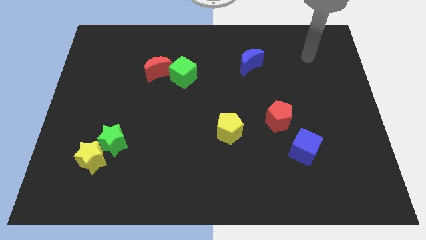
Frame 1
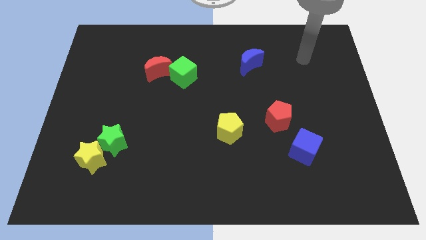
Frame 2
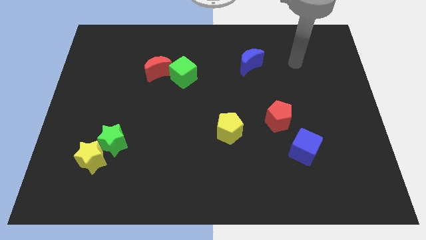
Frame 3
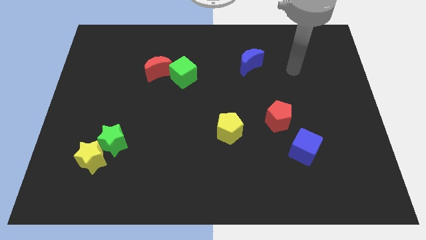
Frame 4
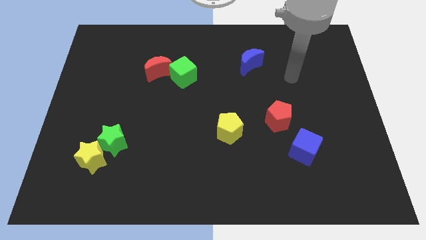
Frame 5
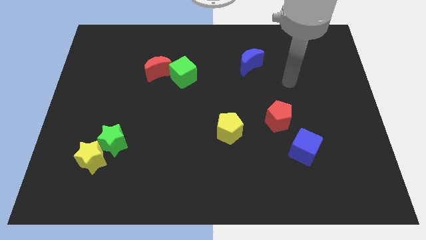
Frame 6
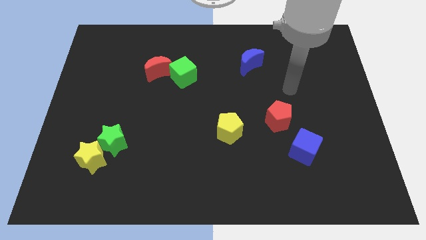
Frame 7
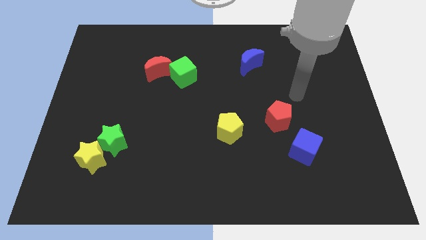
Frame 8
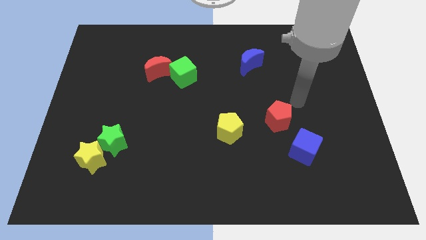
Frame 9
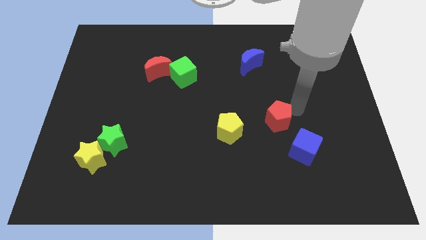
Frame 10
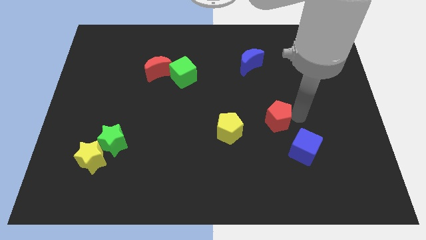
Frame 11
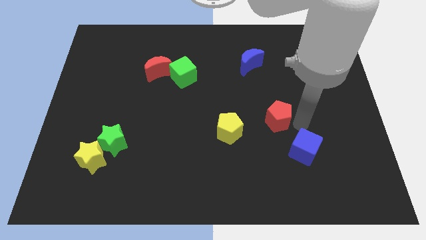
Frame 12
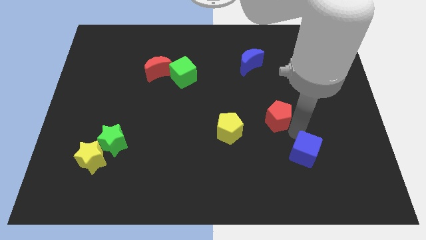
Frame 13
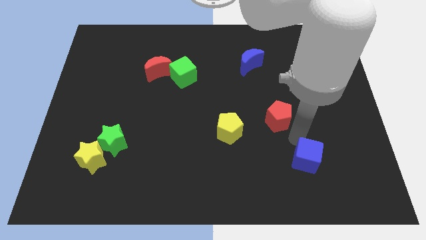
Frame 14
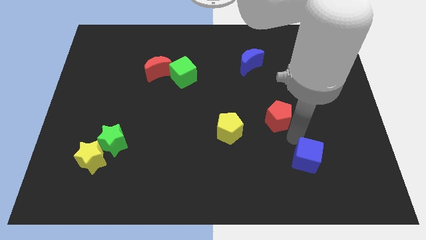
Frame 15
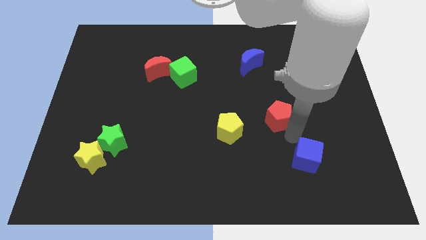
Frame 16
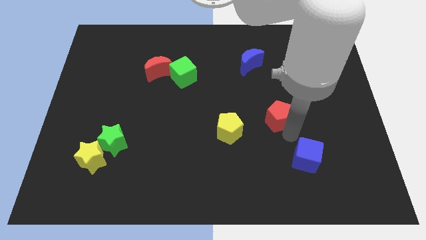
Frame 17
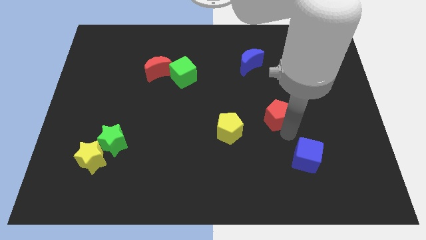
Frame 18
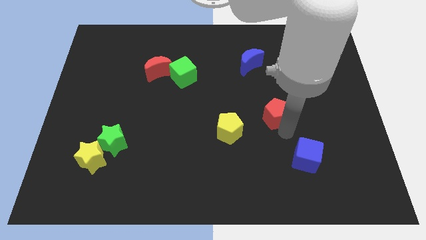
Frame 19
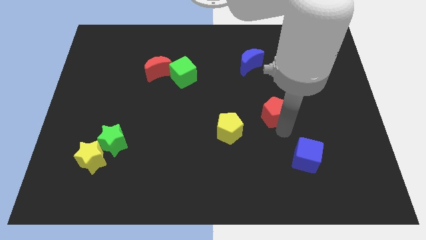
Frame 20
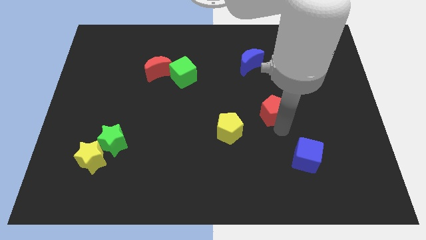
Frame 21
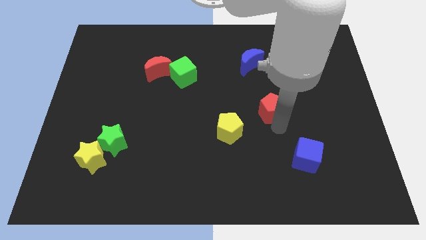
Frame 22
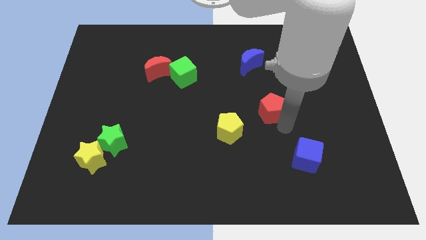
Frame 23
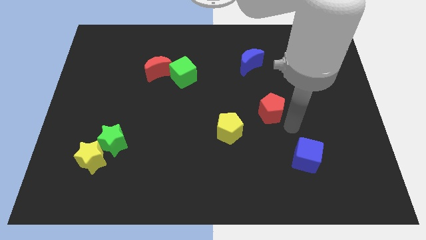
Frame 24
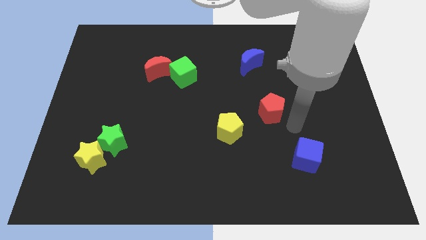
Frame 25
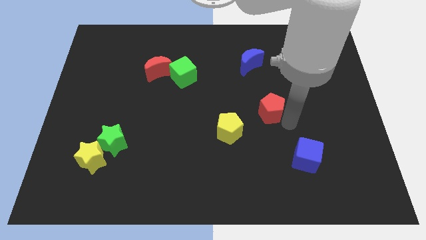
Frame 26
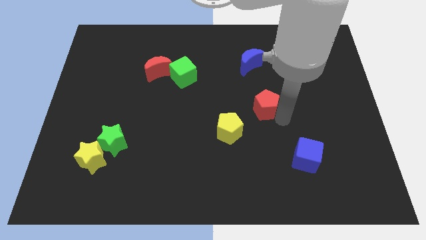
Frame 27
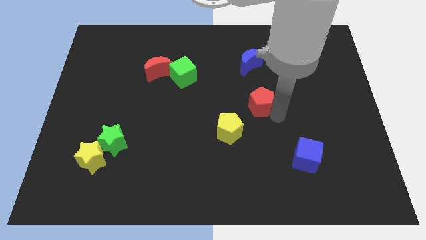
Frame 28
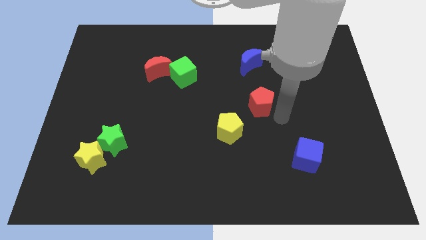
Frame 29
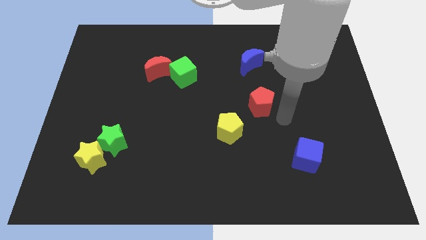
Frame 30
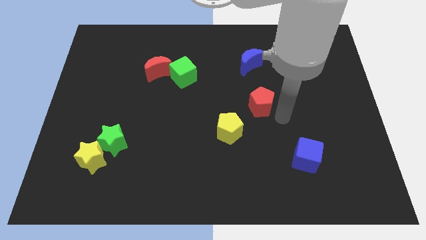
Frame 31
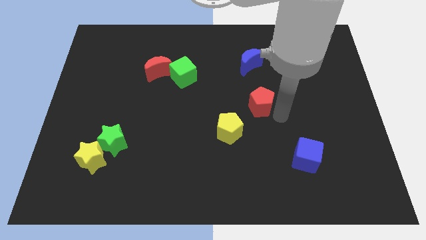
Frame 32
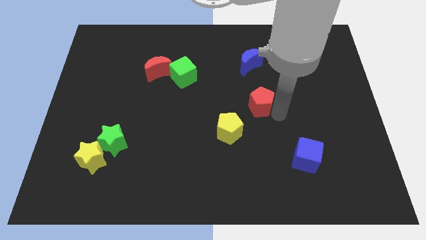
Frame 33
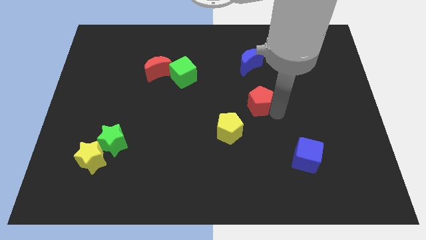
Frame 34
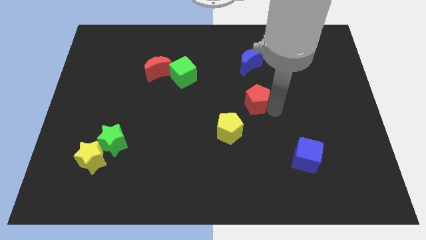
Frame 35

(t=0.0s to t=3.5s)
push the red pentagon somewhat up and left diagonally

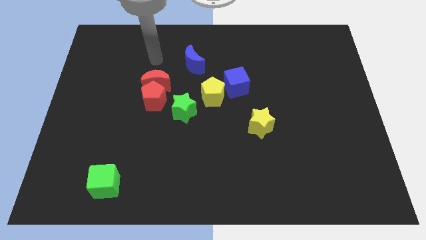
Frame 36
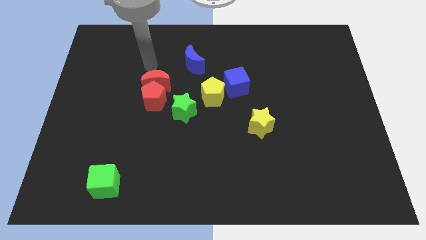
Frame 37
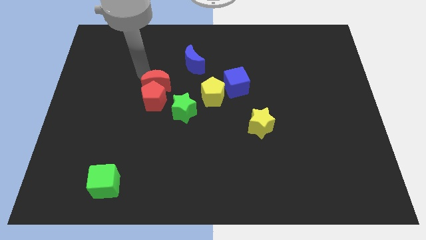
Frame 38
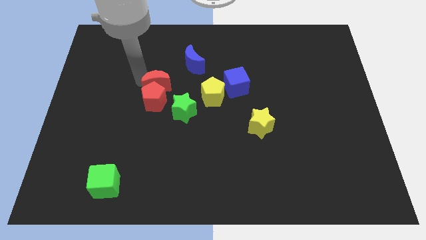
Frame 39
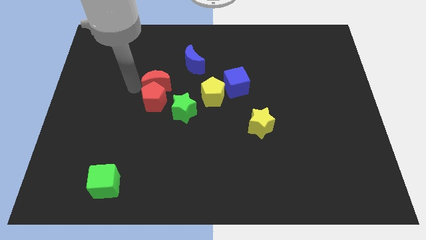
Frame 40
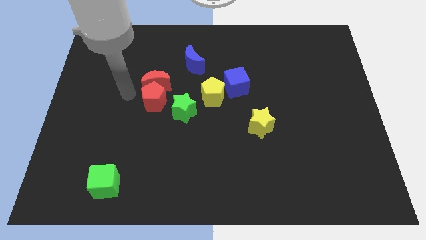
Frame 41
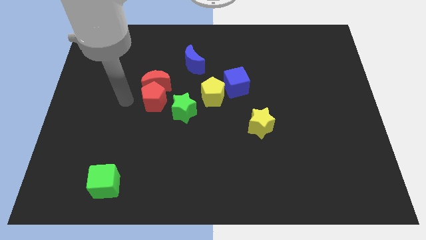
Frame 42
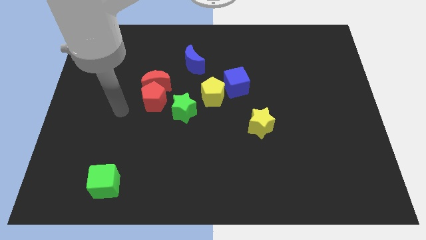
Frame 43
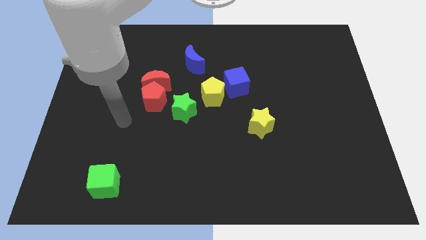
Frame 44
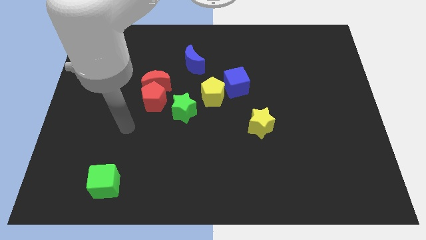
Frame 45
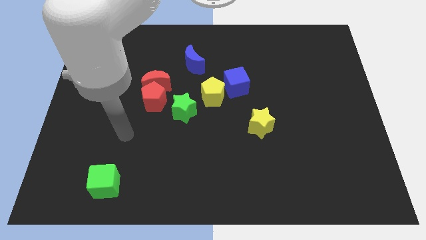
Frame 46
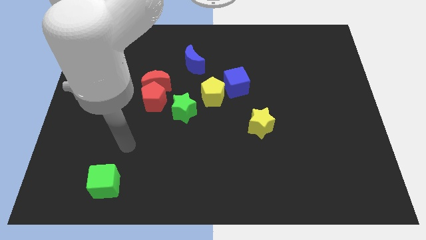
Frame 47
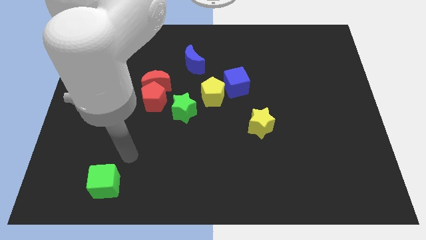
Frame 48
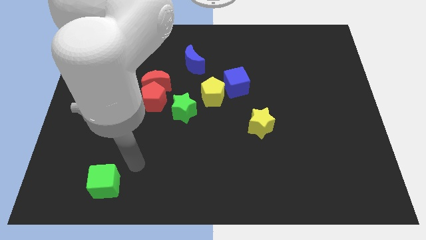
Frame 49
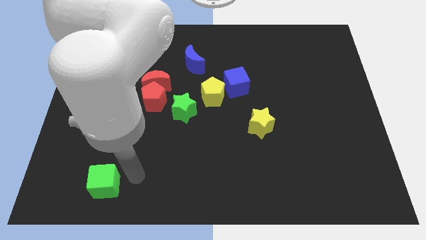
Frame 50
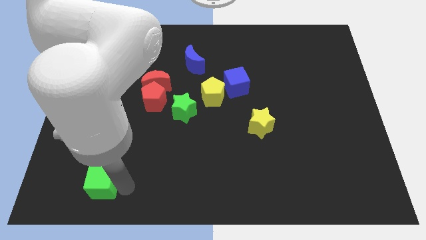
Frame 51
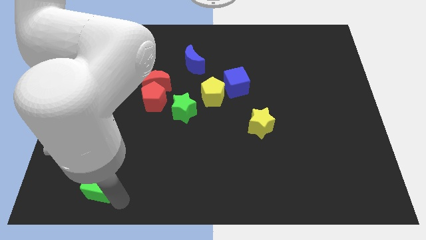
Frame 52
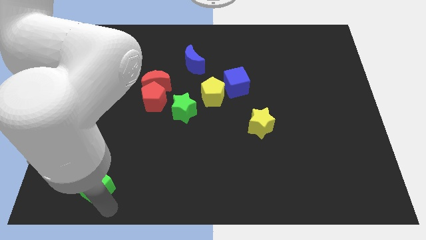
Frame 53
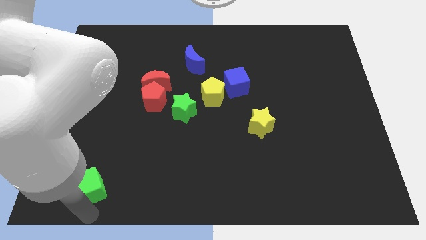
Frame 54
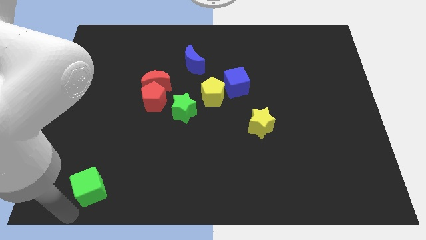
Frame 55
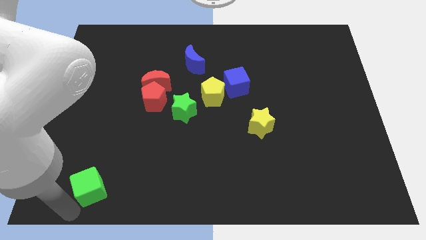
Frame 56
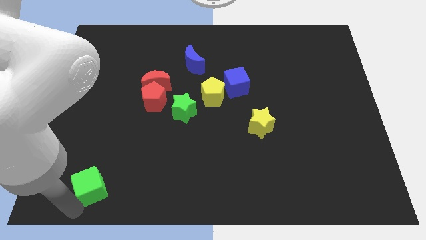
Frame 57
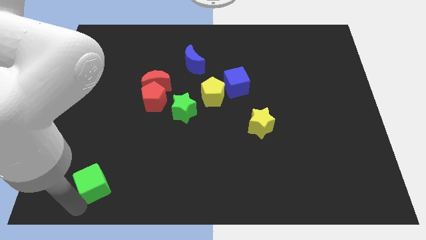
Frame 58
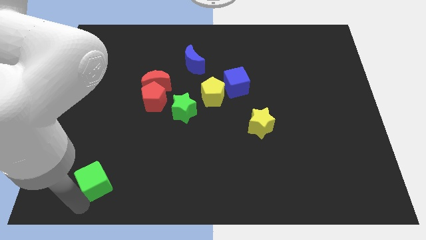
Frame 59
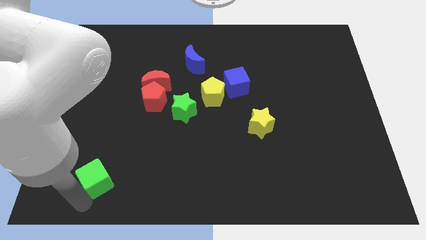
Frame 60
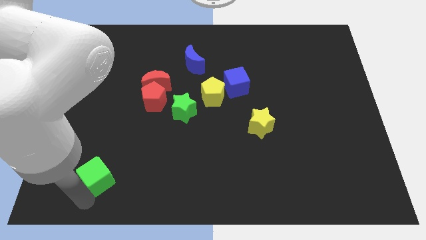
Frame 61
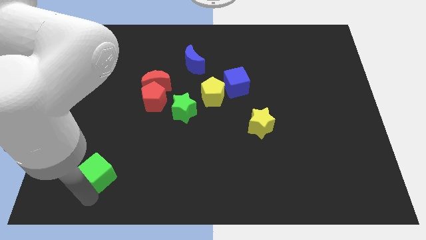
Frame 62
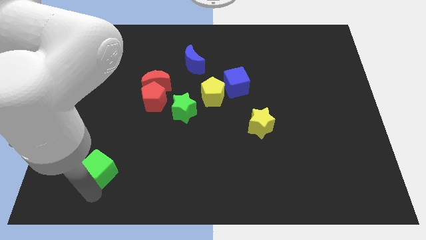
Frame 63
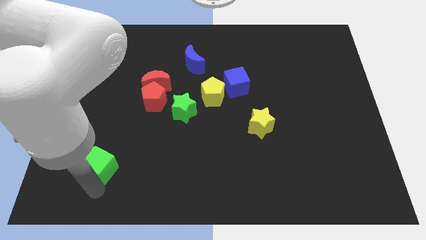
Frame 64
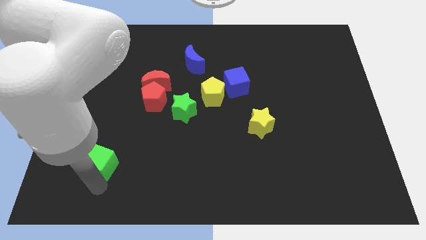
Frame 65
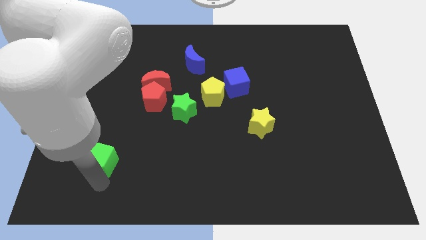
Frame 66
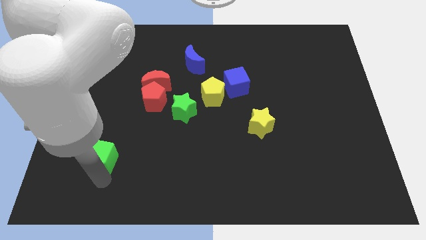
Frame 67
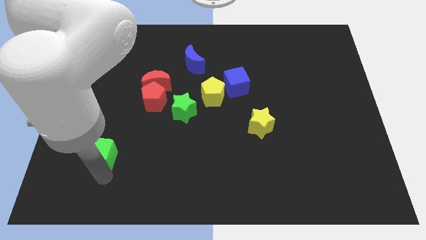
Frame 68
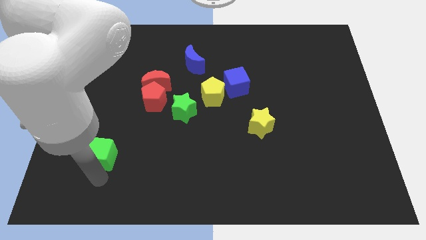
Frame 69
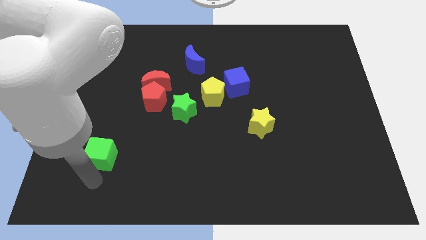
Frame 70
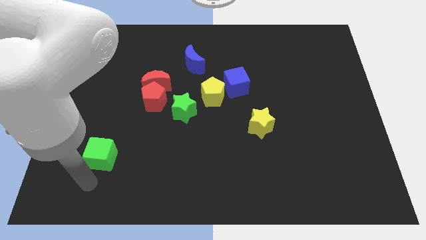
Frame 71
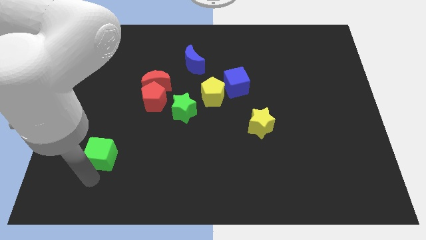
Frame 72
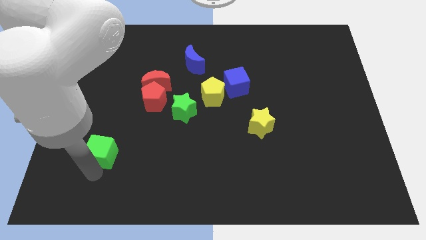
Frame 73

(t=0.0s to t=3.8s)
slide the green cube a little bit up

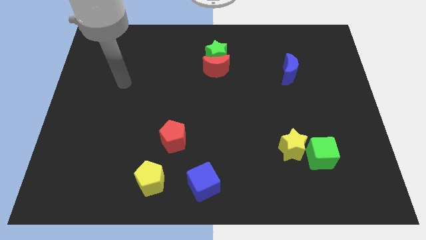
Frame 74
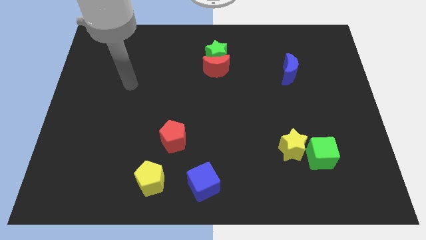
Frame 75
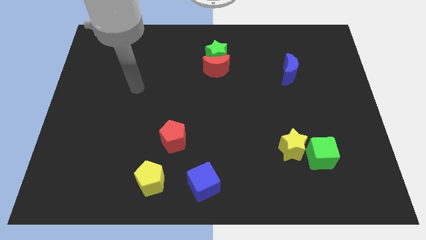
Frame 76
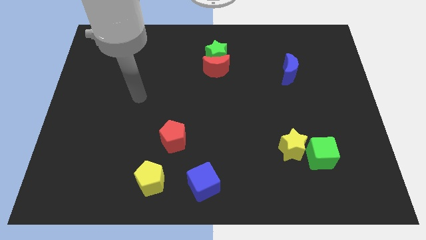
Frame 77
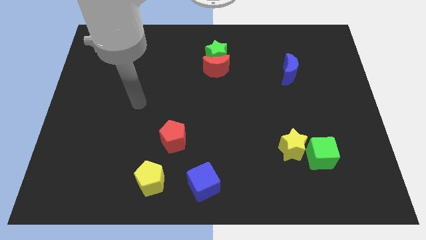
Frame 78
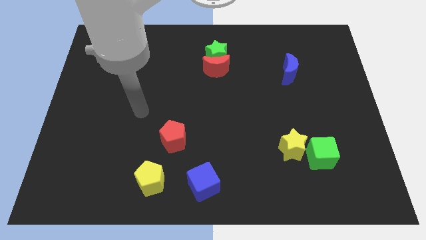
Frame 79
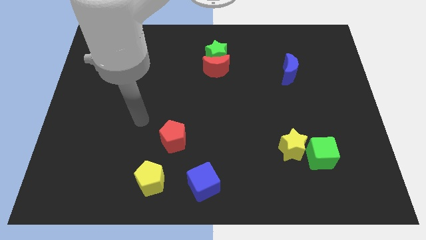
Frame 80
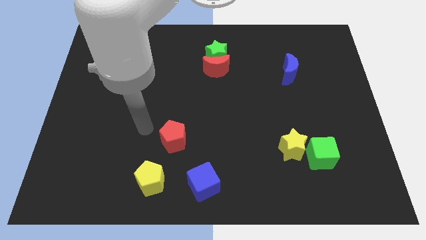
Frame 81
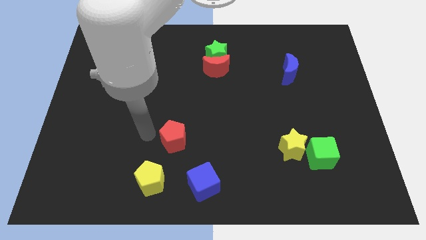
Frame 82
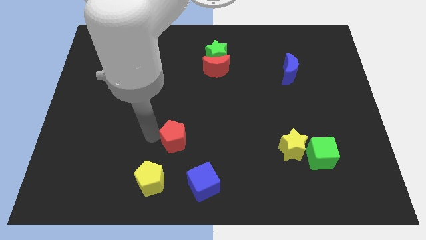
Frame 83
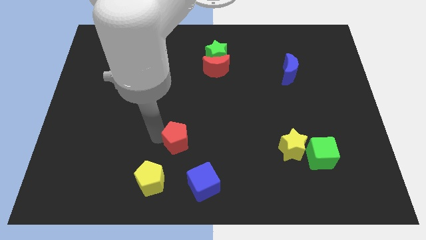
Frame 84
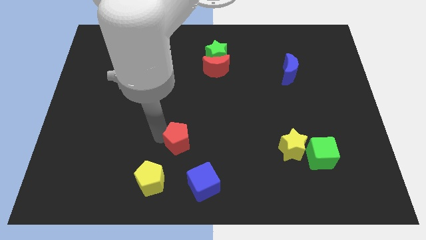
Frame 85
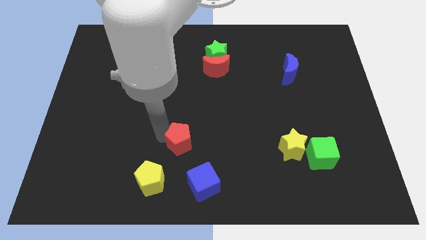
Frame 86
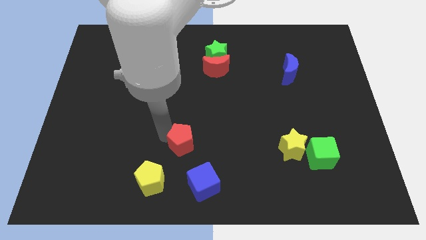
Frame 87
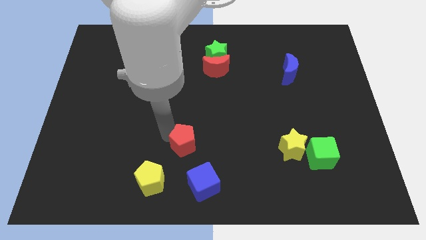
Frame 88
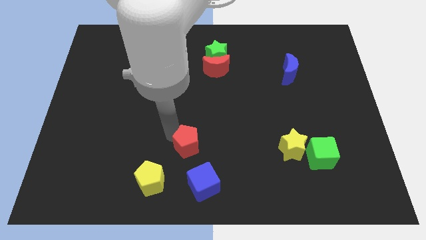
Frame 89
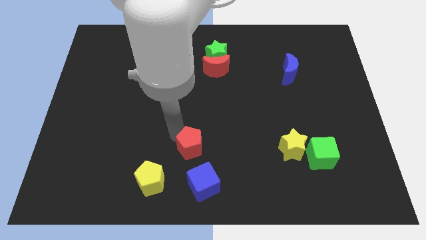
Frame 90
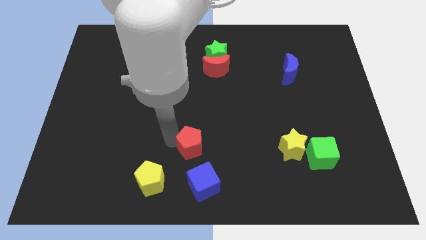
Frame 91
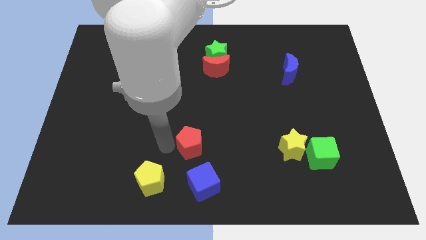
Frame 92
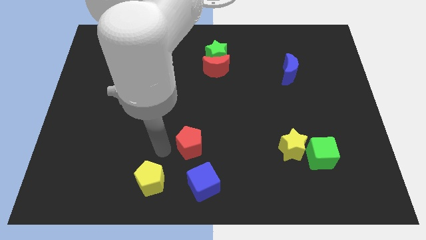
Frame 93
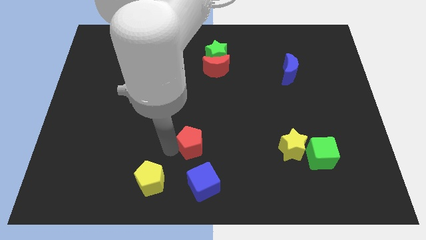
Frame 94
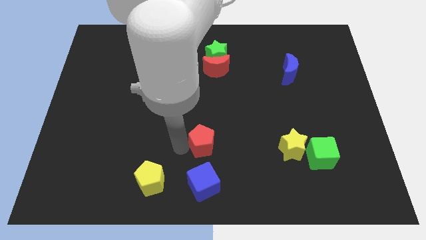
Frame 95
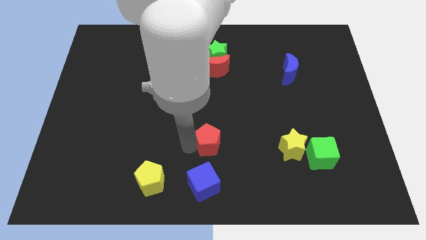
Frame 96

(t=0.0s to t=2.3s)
push the red pentagon to the right slightly
